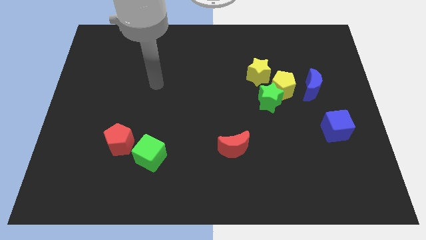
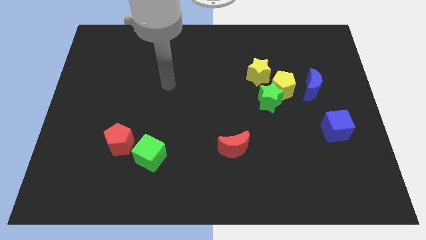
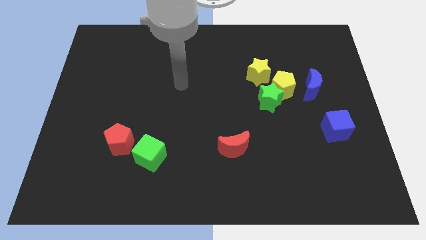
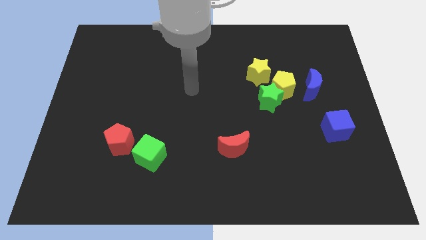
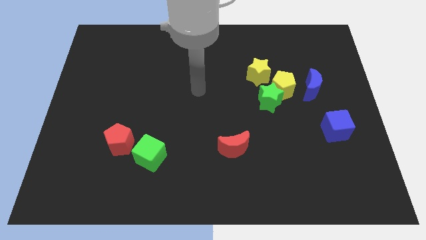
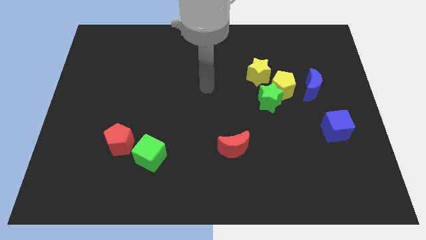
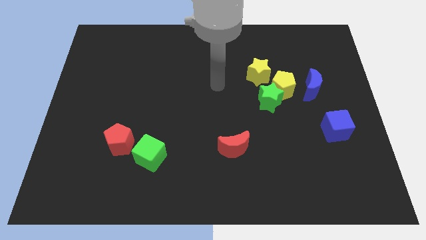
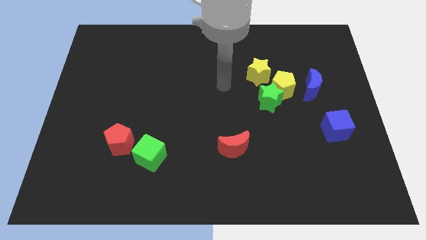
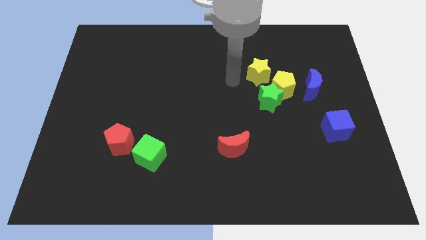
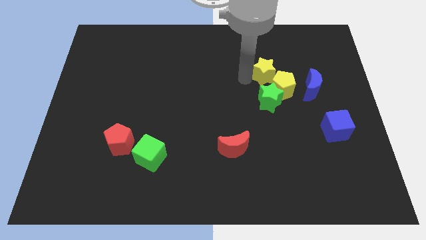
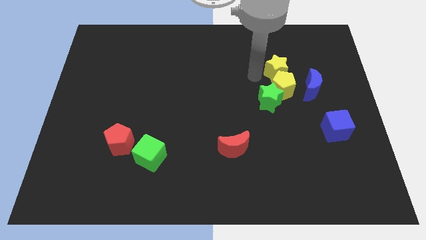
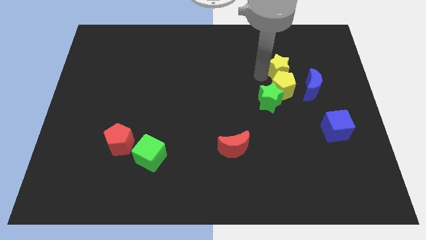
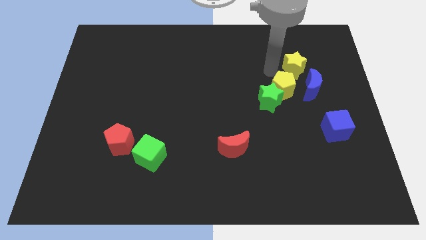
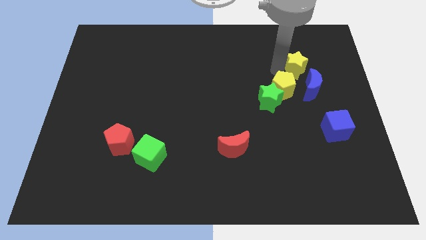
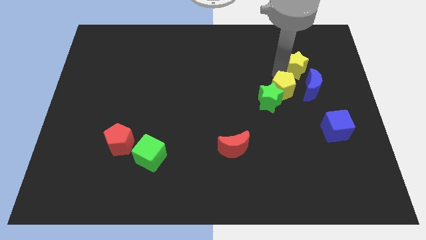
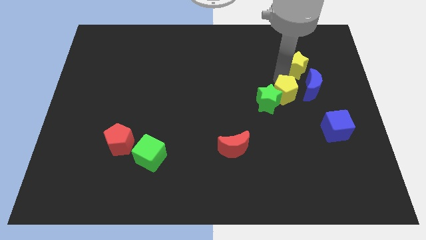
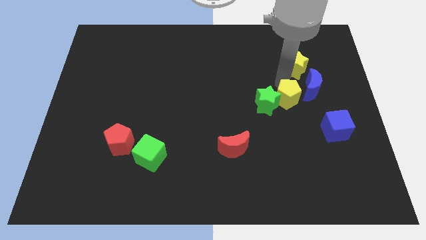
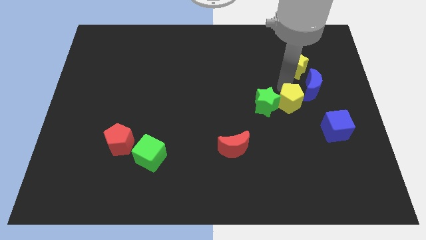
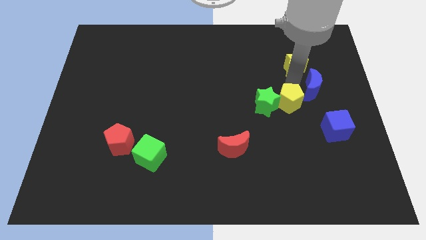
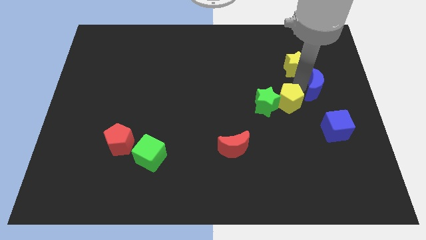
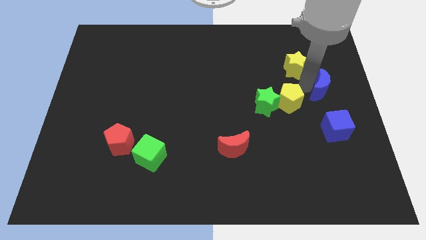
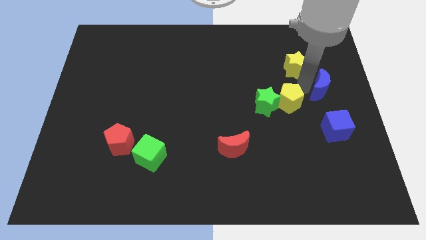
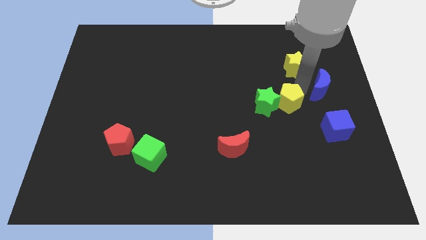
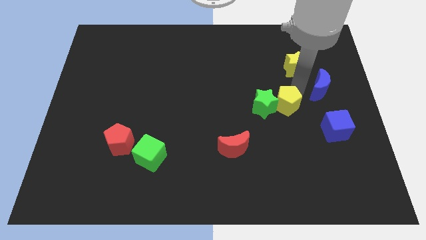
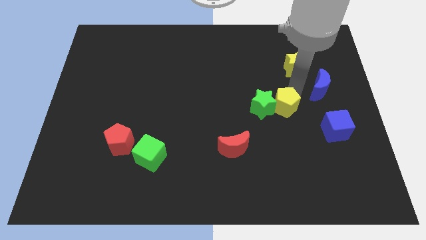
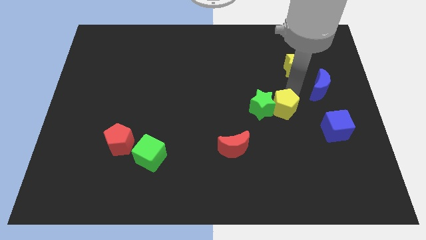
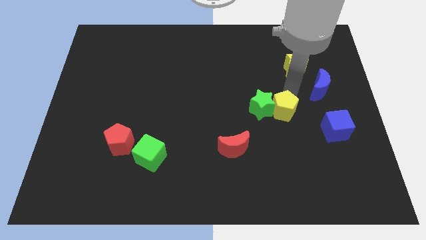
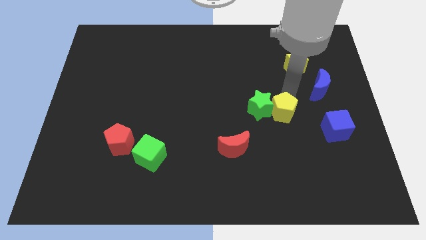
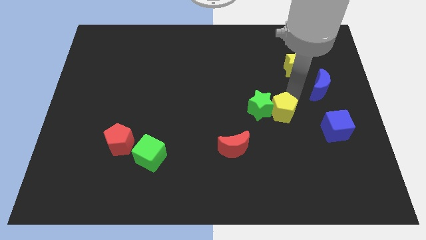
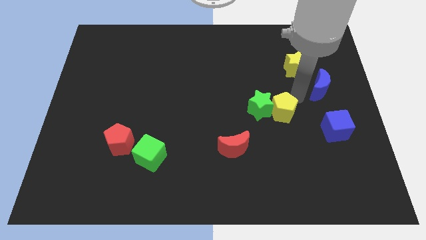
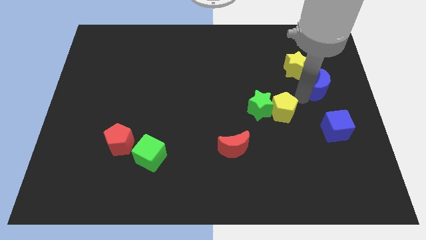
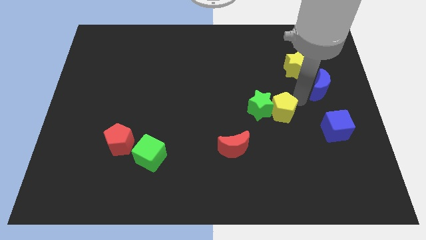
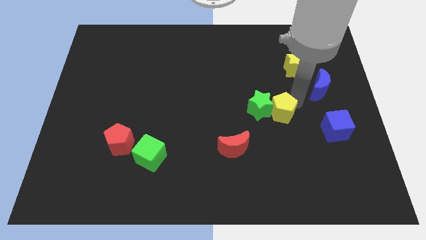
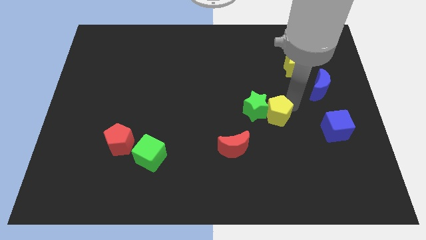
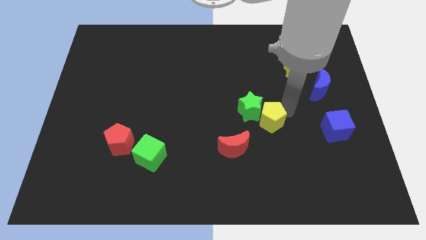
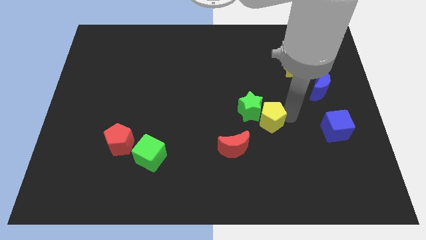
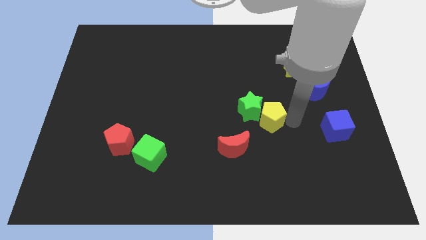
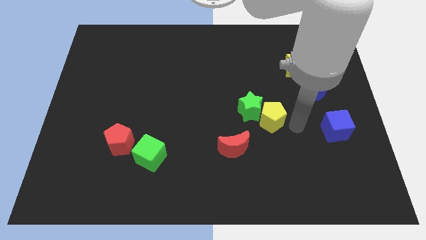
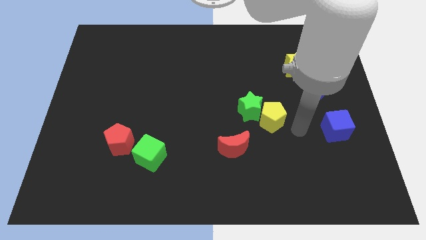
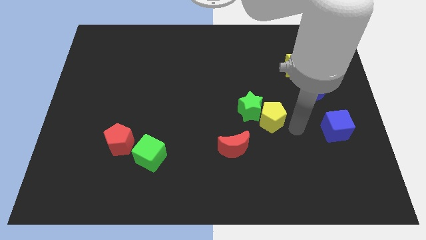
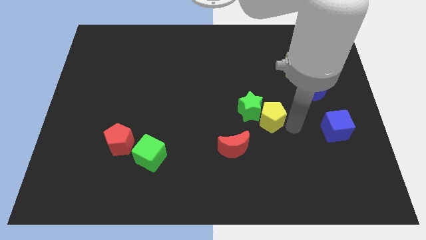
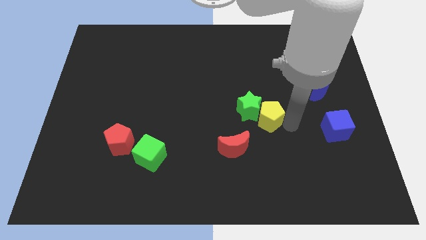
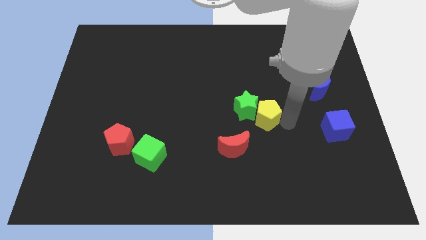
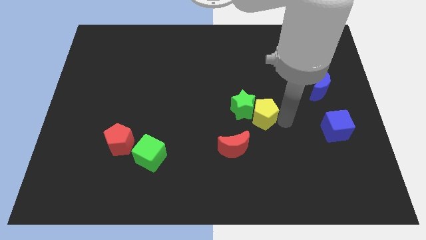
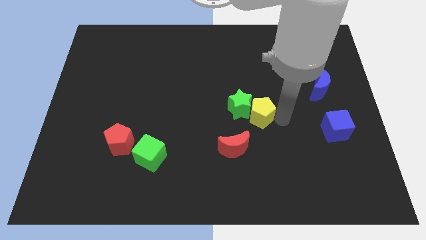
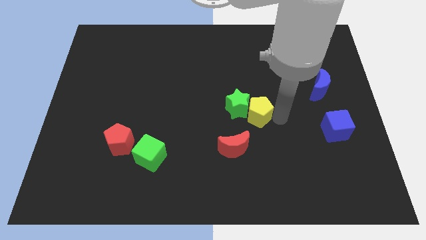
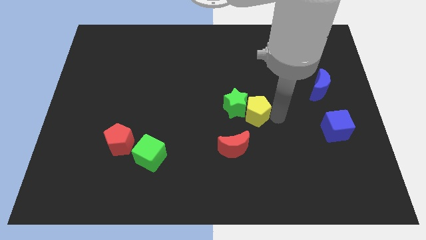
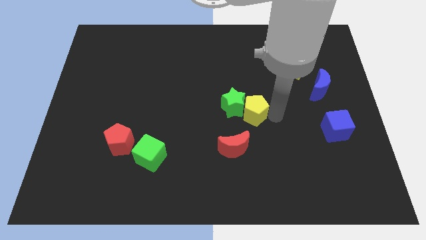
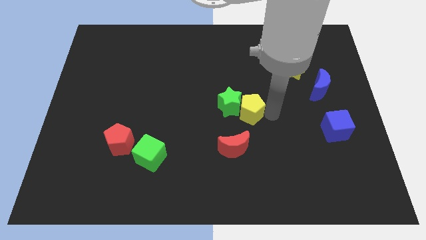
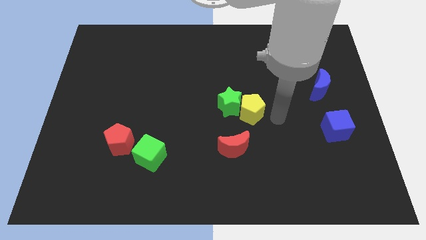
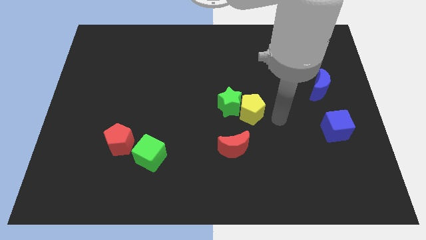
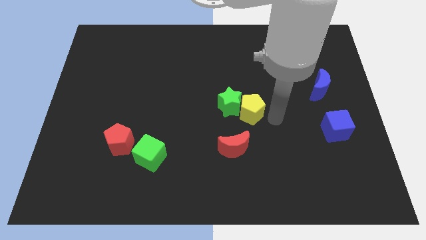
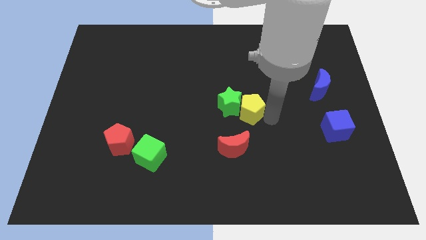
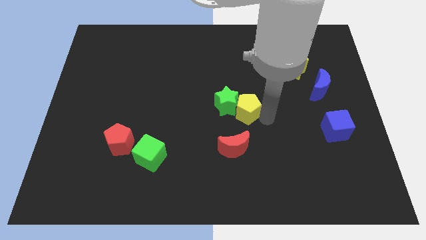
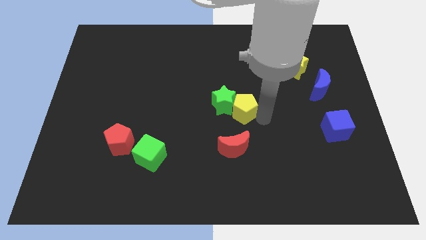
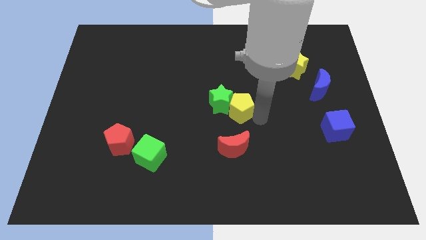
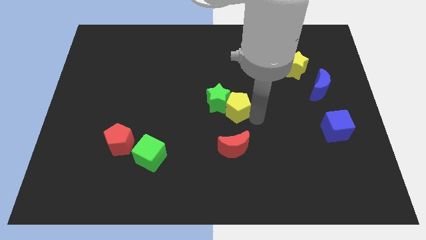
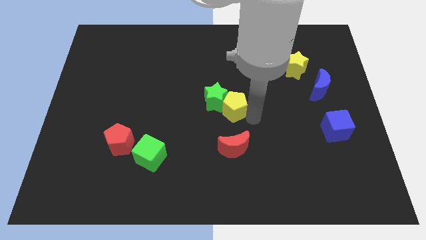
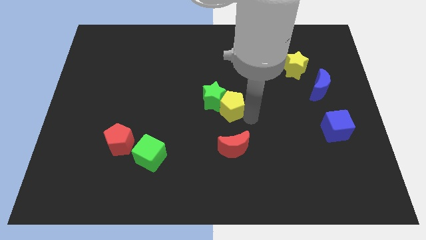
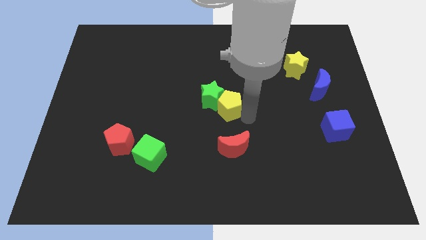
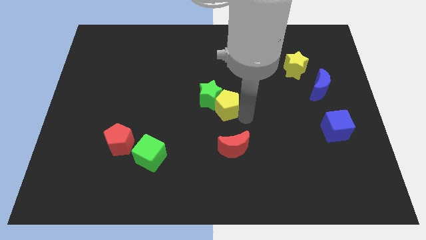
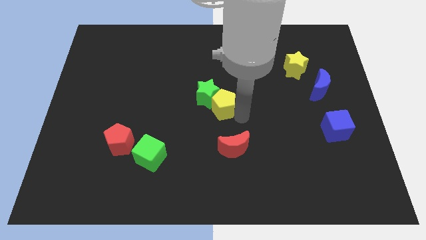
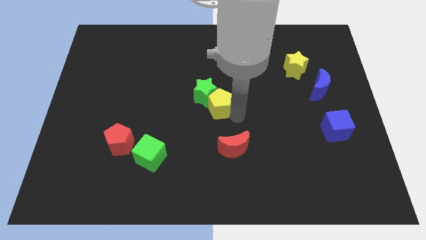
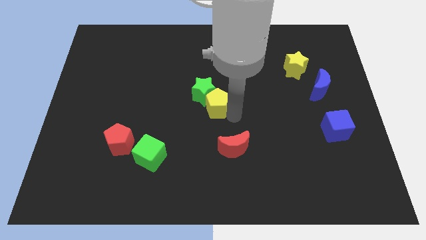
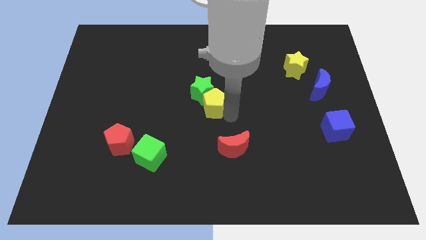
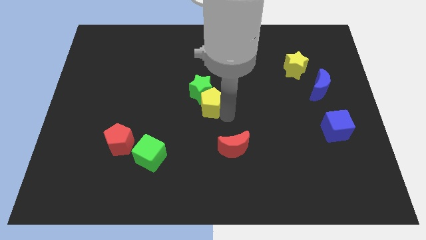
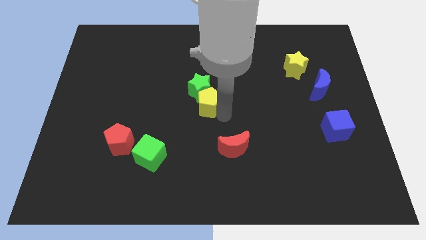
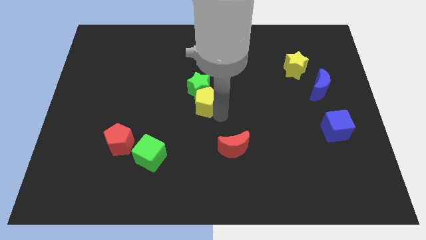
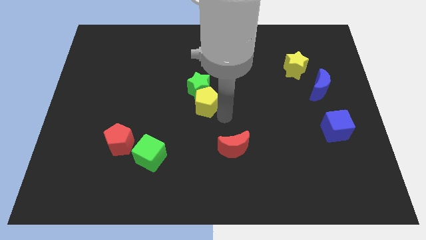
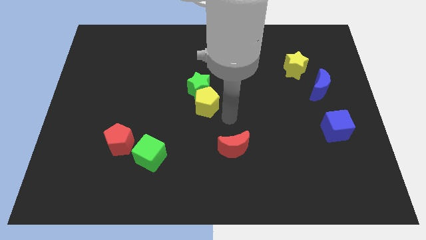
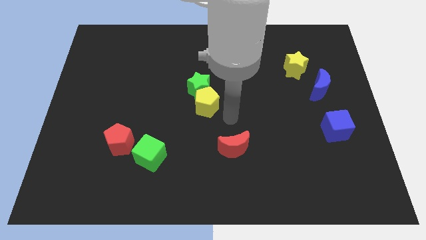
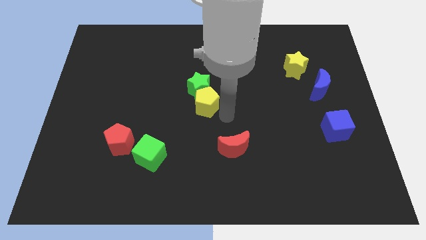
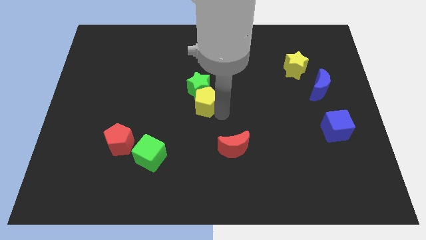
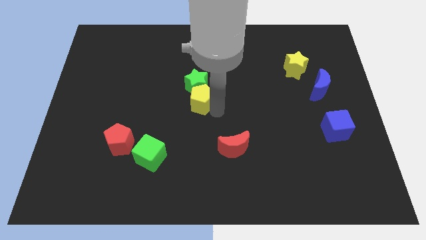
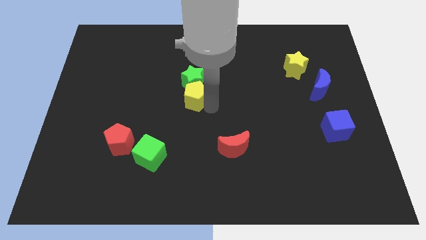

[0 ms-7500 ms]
move the yellow pentagon to the left

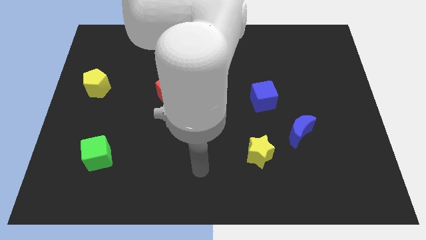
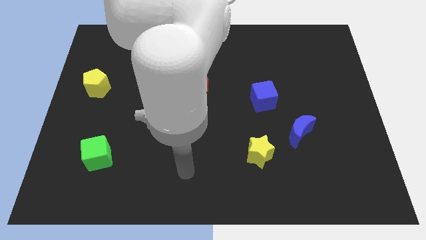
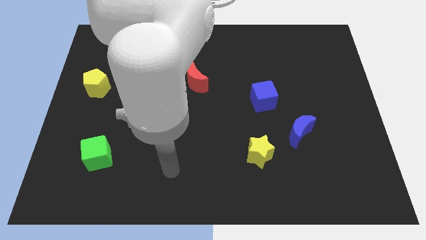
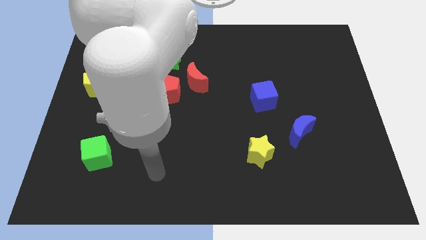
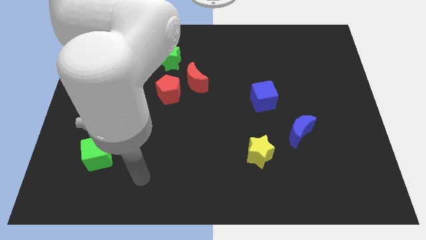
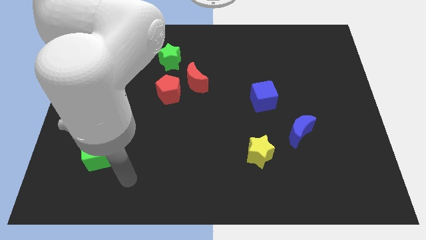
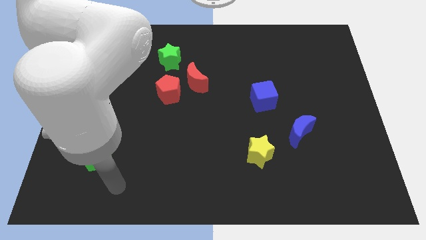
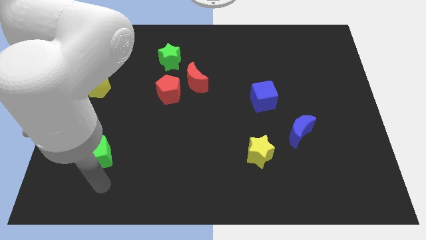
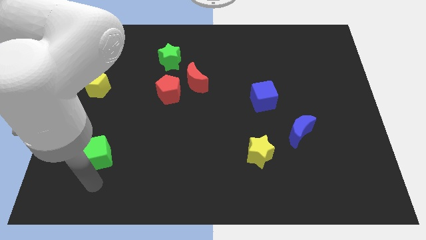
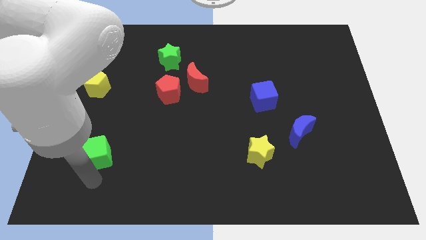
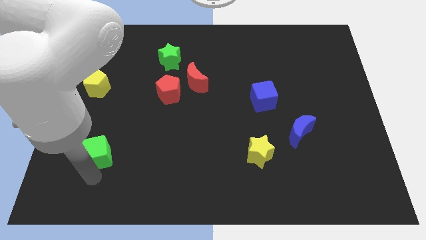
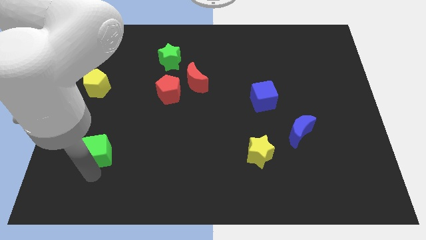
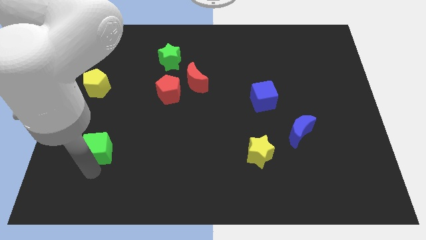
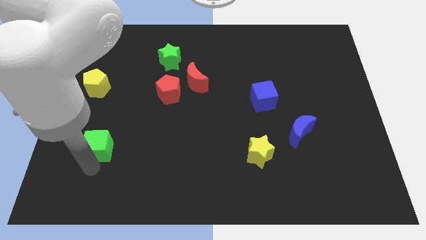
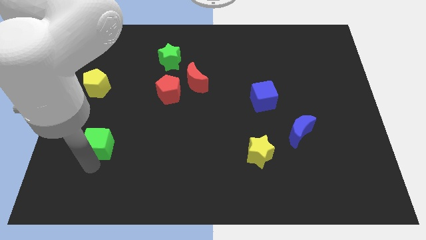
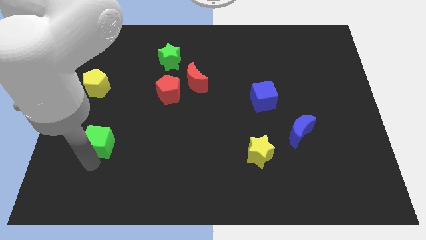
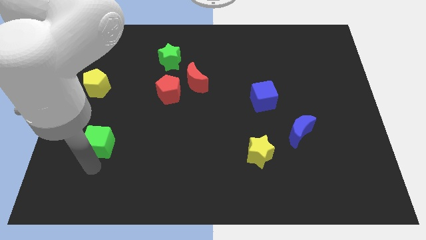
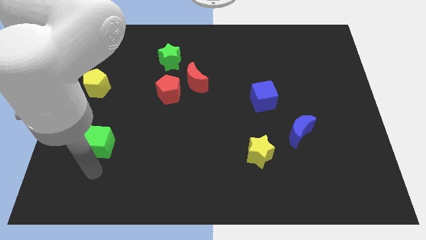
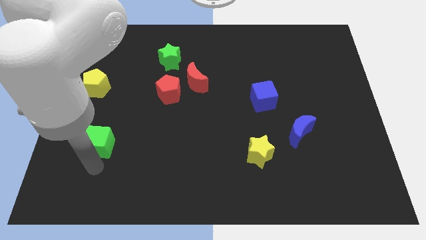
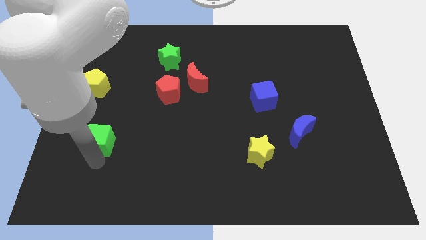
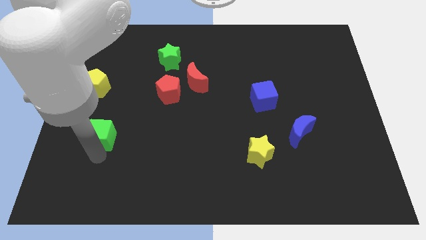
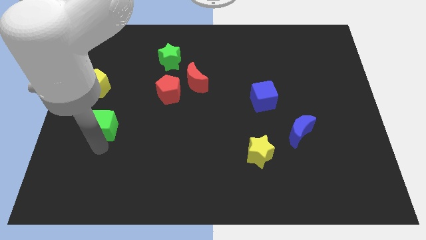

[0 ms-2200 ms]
slide the green cube up somewhat
